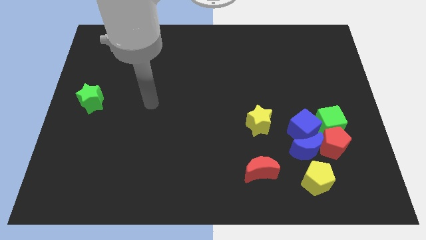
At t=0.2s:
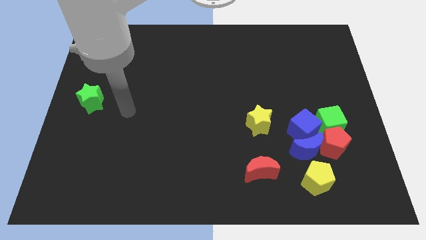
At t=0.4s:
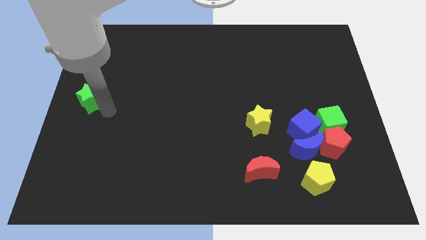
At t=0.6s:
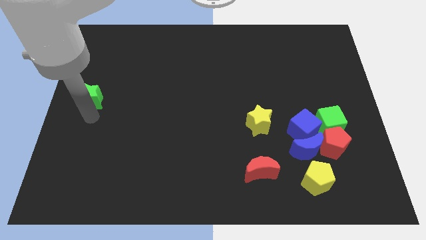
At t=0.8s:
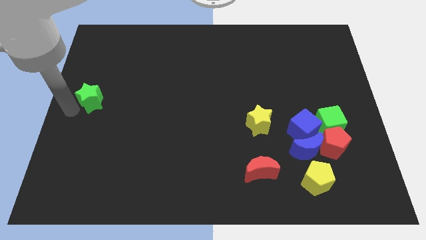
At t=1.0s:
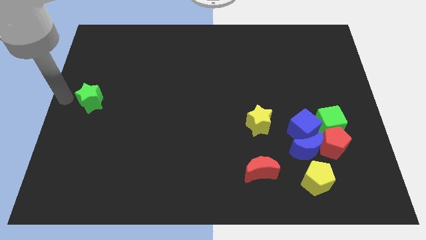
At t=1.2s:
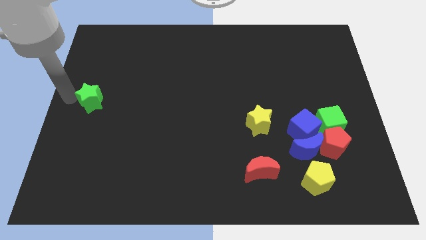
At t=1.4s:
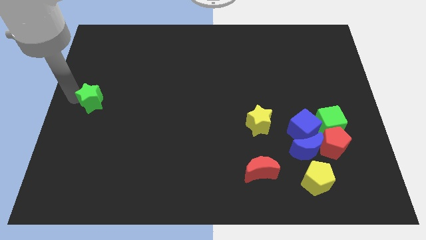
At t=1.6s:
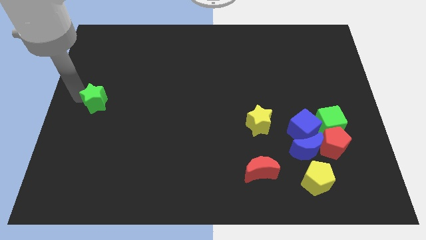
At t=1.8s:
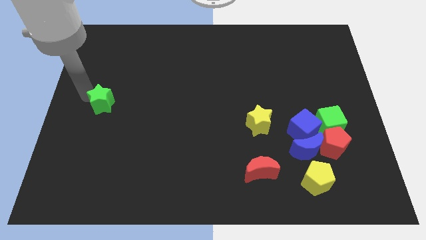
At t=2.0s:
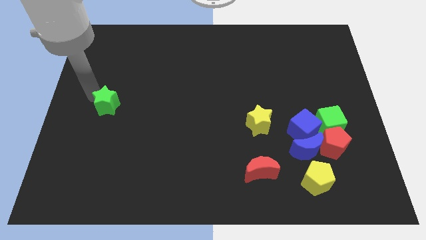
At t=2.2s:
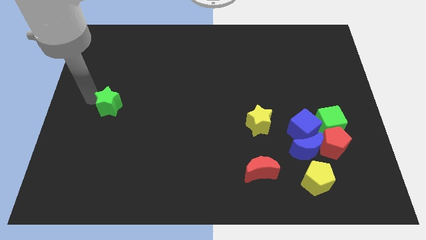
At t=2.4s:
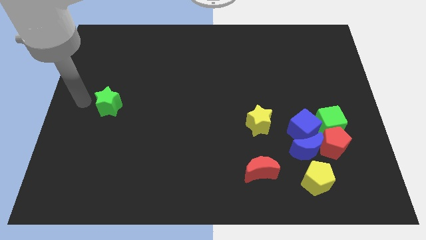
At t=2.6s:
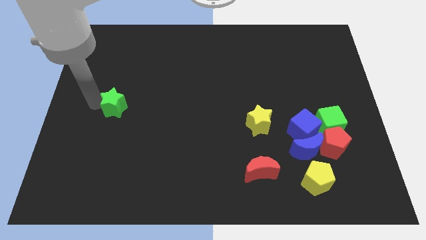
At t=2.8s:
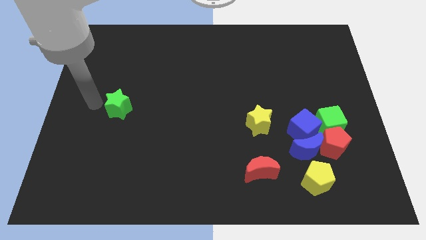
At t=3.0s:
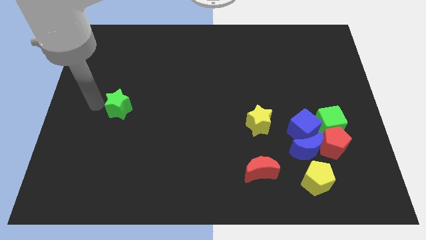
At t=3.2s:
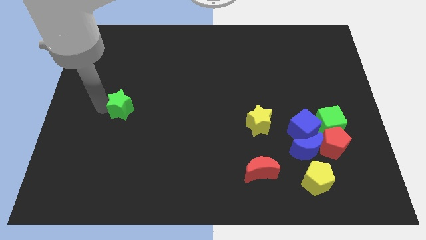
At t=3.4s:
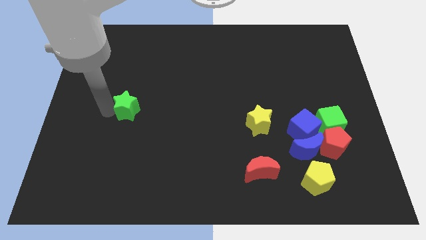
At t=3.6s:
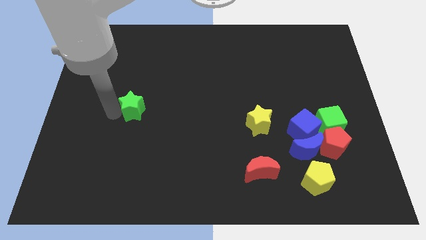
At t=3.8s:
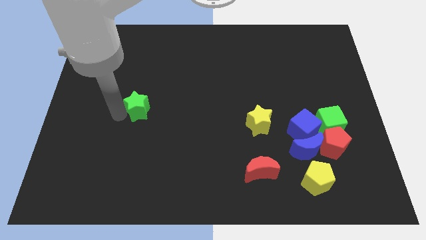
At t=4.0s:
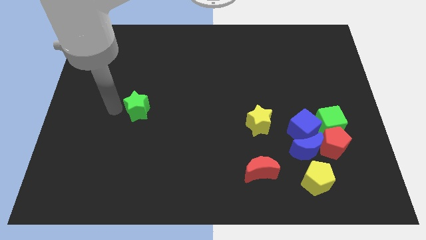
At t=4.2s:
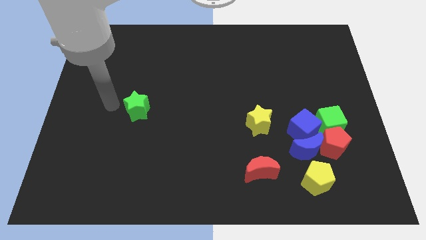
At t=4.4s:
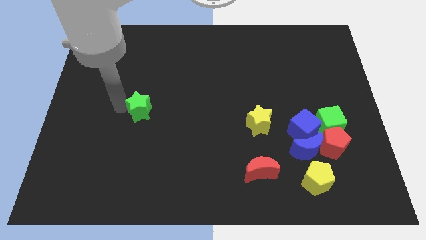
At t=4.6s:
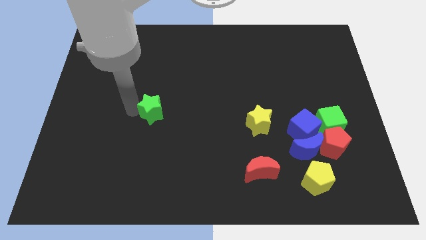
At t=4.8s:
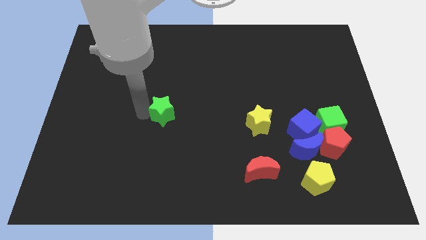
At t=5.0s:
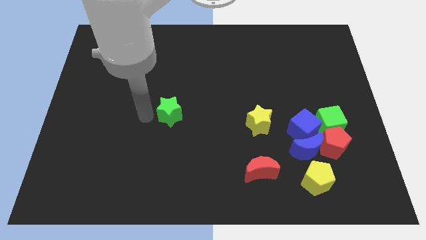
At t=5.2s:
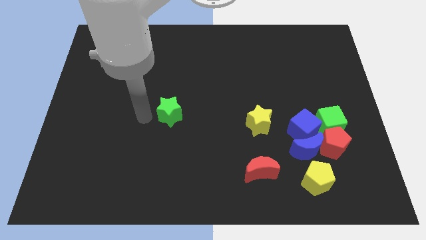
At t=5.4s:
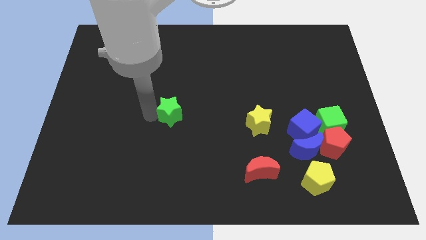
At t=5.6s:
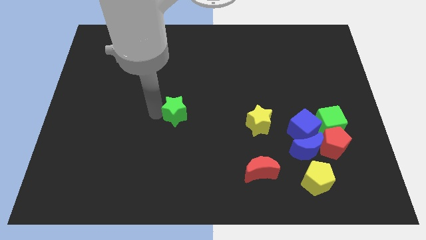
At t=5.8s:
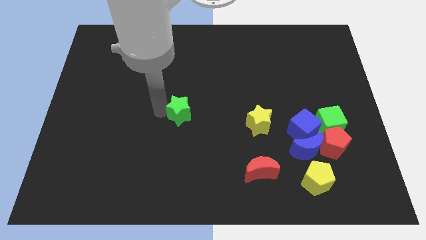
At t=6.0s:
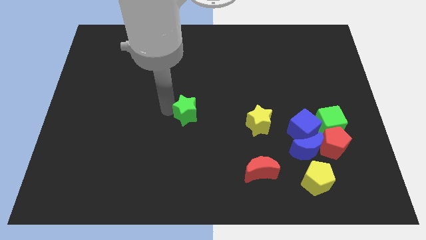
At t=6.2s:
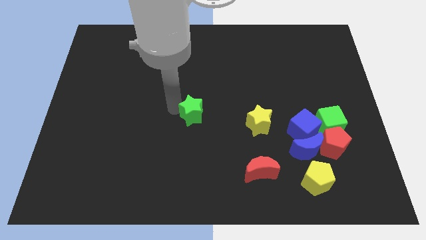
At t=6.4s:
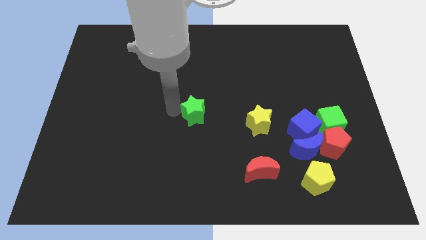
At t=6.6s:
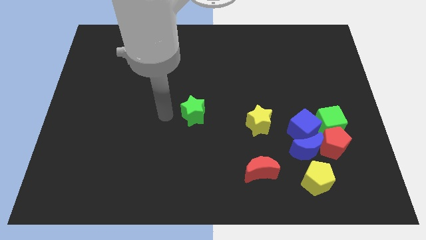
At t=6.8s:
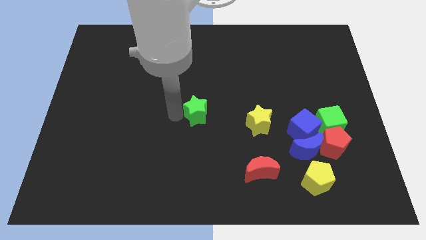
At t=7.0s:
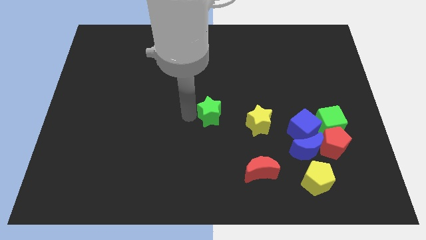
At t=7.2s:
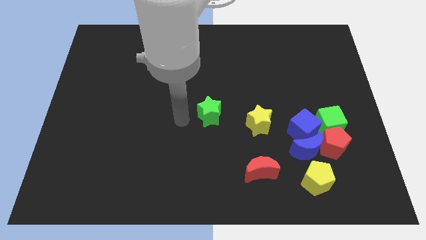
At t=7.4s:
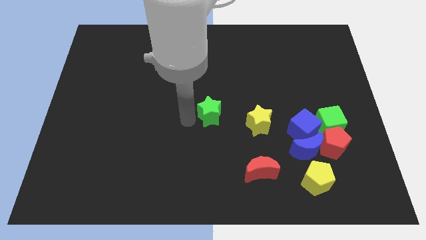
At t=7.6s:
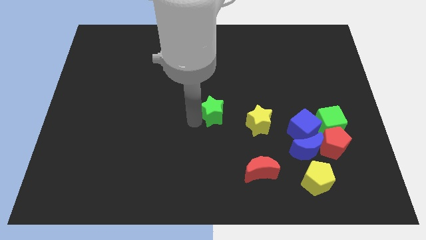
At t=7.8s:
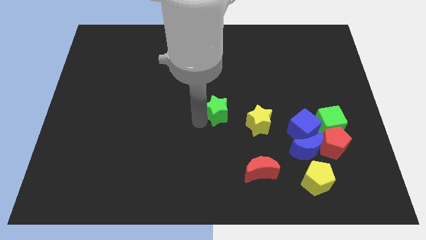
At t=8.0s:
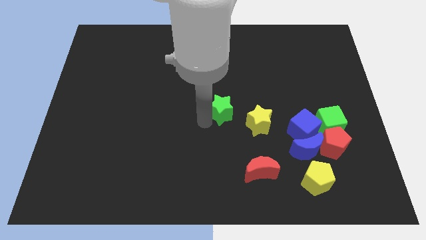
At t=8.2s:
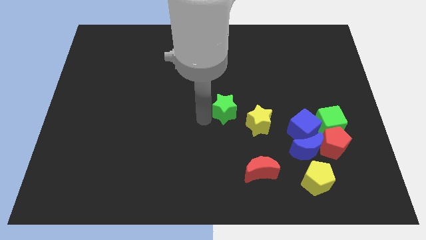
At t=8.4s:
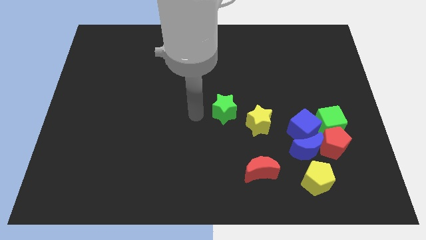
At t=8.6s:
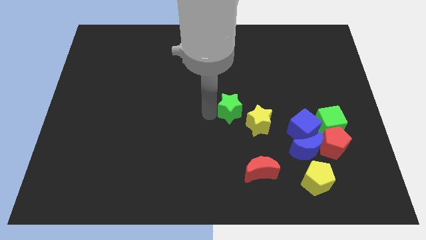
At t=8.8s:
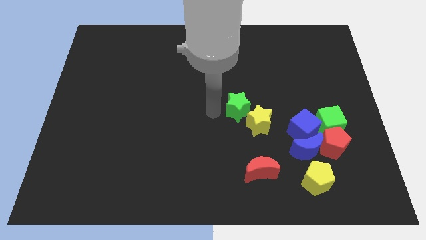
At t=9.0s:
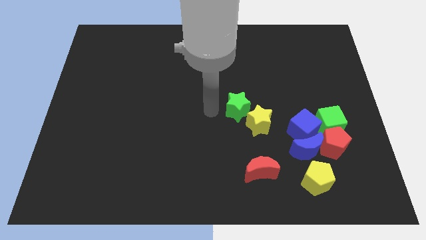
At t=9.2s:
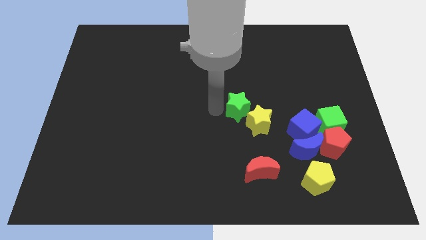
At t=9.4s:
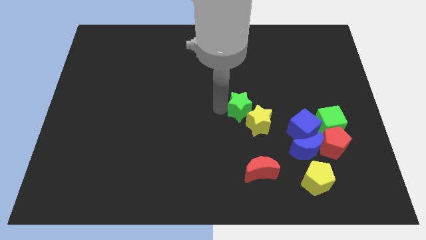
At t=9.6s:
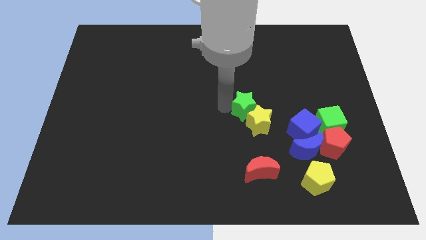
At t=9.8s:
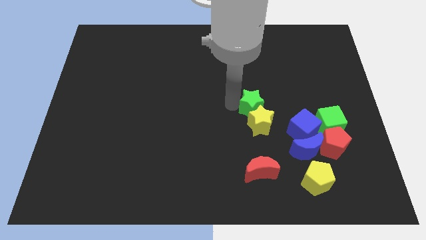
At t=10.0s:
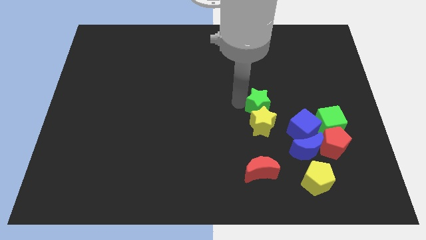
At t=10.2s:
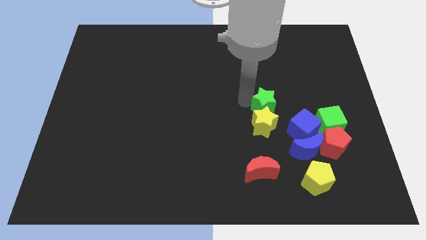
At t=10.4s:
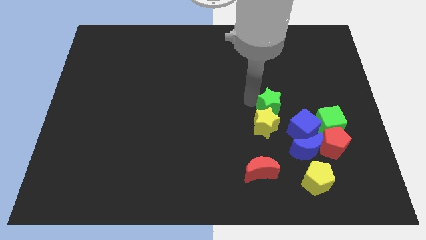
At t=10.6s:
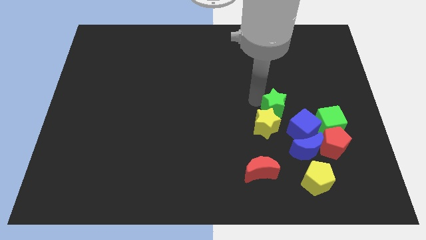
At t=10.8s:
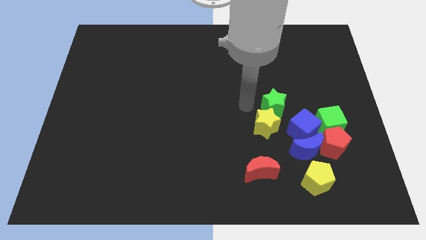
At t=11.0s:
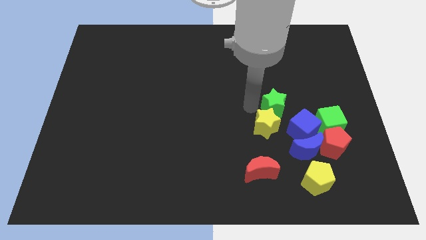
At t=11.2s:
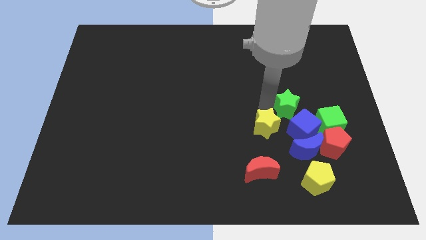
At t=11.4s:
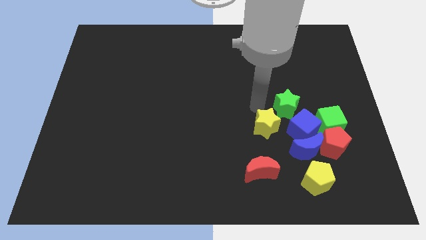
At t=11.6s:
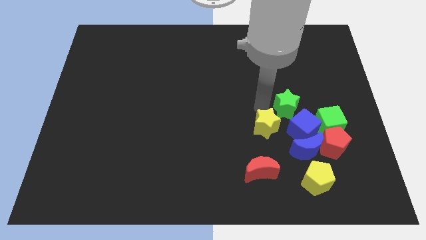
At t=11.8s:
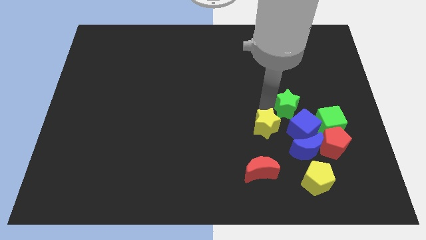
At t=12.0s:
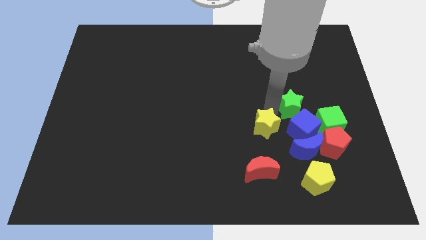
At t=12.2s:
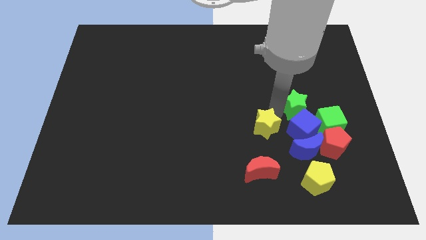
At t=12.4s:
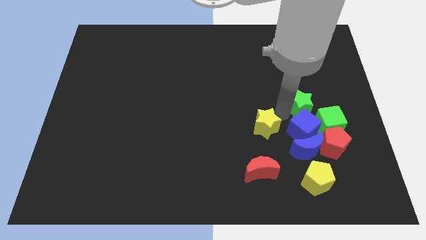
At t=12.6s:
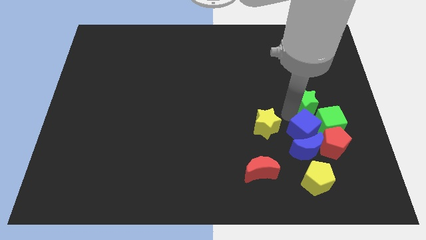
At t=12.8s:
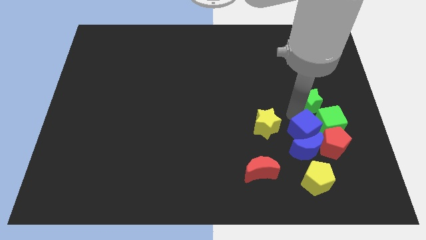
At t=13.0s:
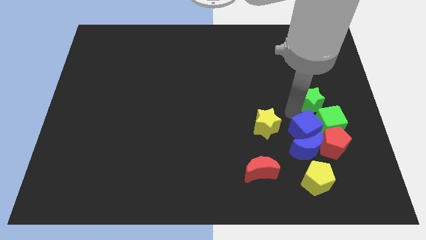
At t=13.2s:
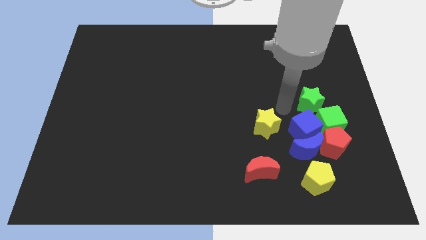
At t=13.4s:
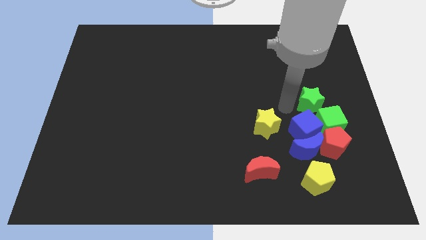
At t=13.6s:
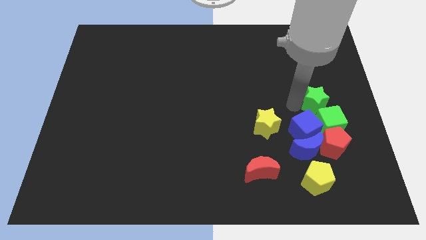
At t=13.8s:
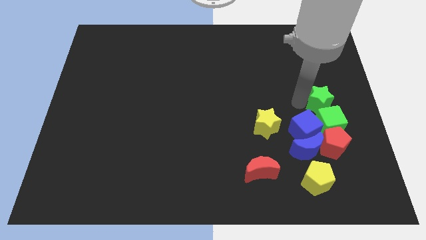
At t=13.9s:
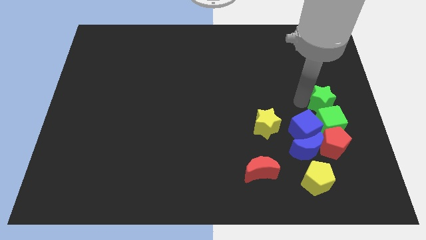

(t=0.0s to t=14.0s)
push the green star to the center right

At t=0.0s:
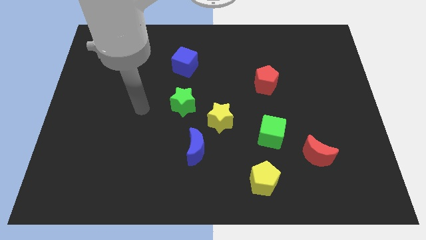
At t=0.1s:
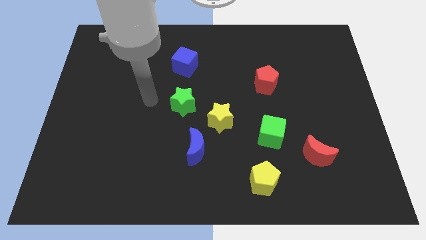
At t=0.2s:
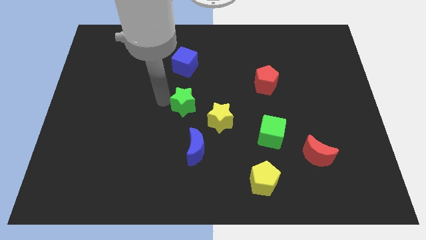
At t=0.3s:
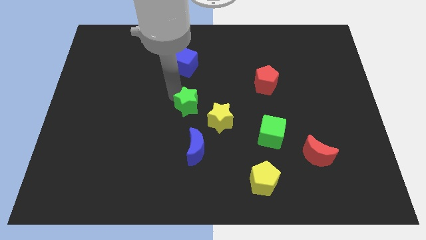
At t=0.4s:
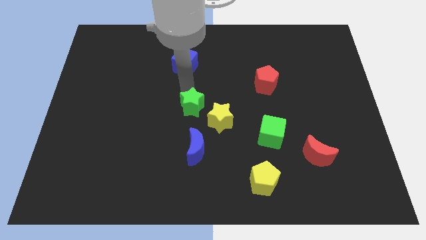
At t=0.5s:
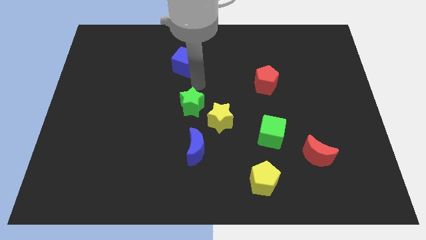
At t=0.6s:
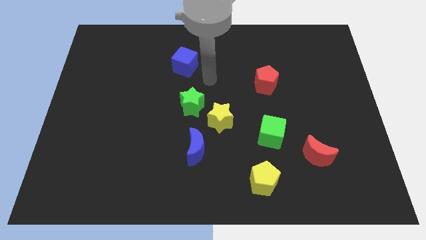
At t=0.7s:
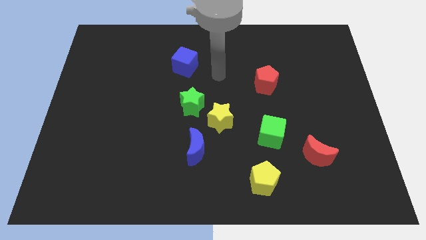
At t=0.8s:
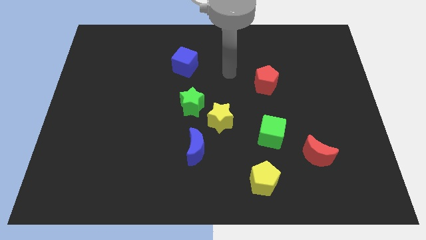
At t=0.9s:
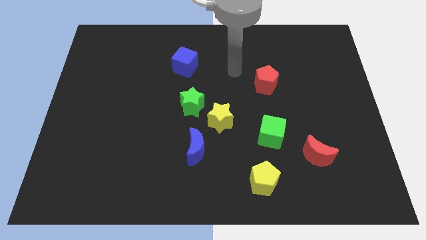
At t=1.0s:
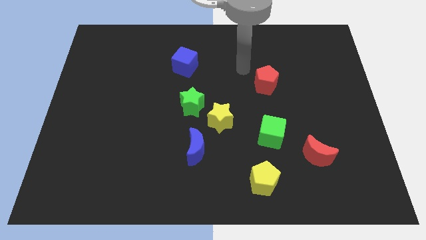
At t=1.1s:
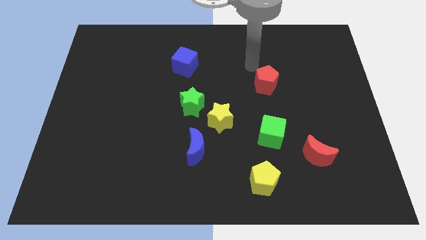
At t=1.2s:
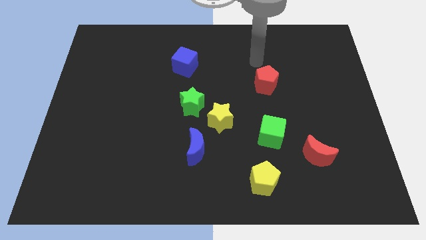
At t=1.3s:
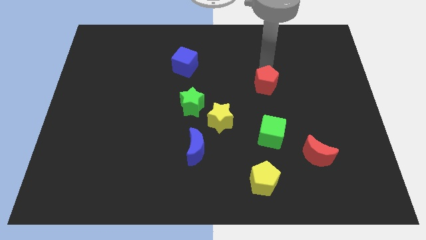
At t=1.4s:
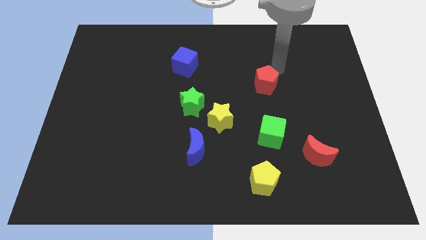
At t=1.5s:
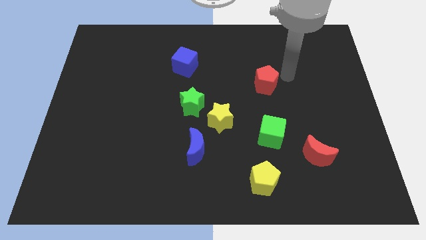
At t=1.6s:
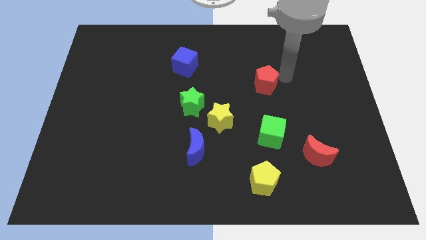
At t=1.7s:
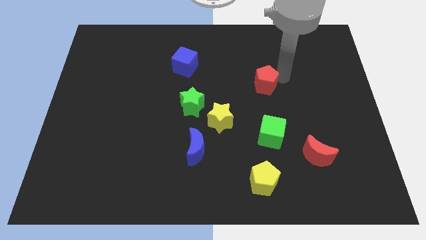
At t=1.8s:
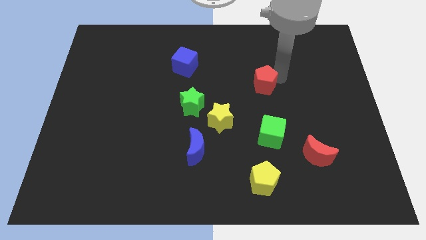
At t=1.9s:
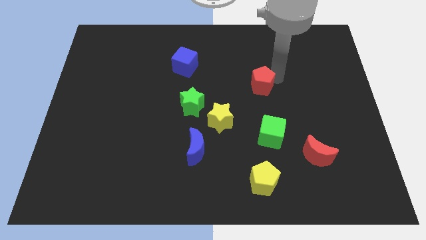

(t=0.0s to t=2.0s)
move the red pentagon to the center
